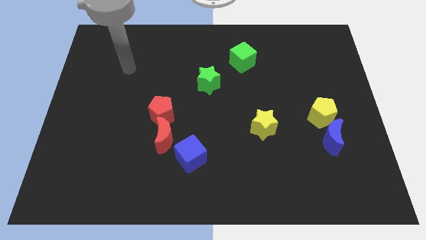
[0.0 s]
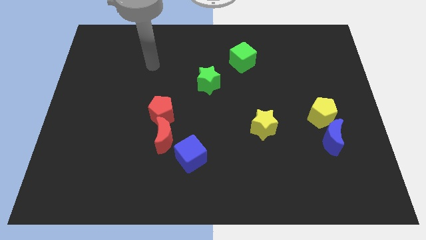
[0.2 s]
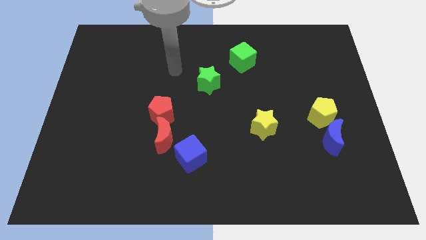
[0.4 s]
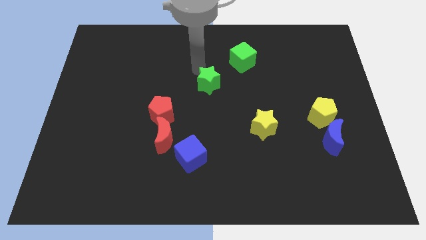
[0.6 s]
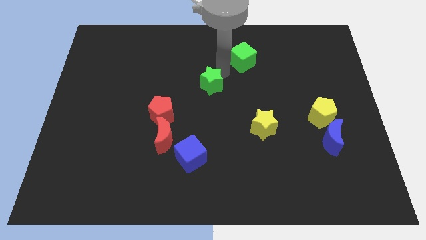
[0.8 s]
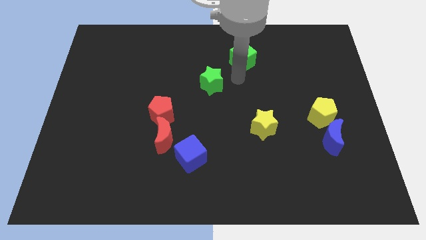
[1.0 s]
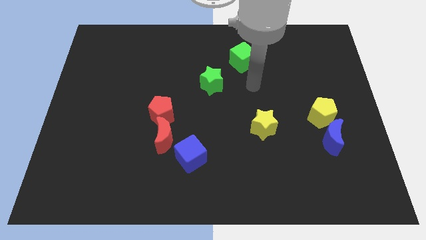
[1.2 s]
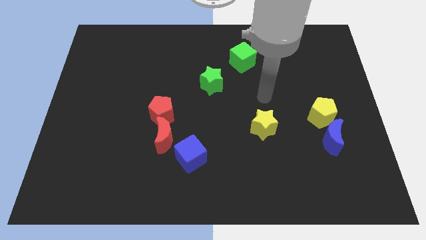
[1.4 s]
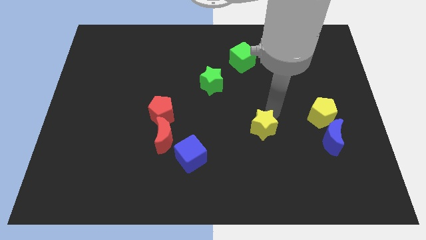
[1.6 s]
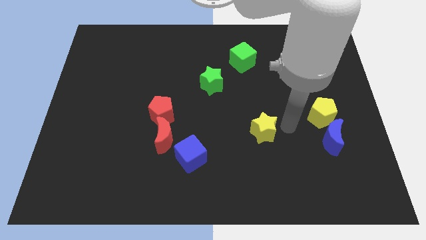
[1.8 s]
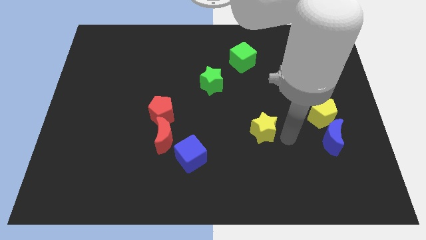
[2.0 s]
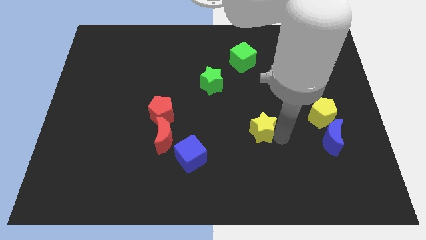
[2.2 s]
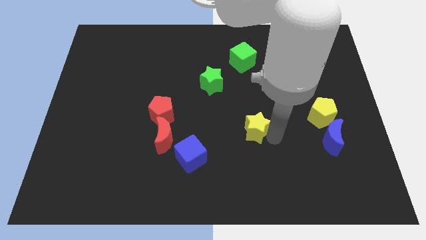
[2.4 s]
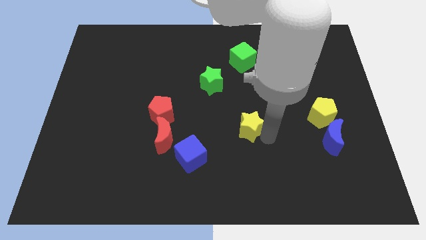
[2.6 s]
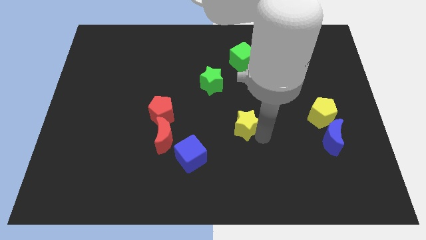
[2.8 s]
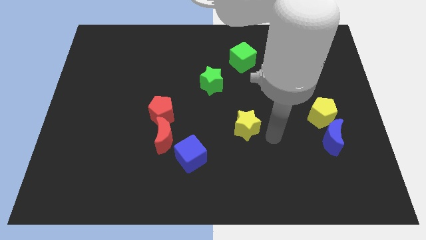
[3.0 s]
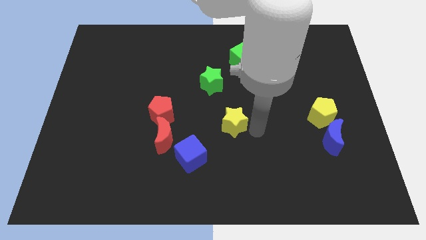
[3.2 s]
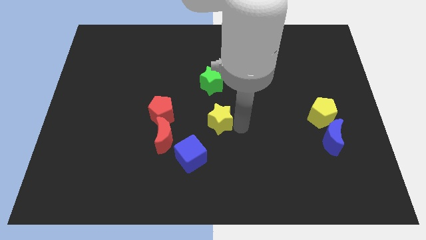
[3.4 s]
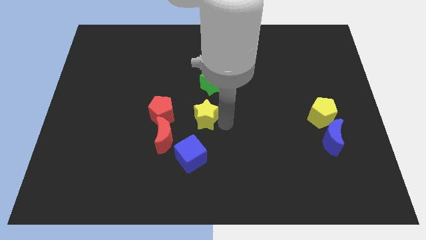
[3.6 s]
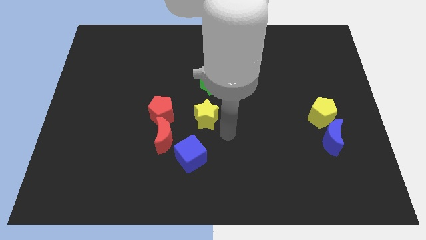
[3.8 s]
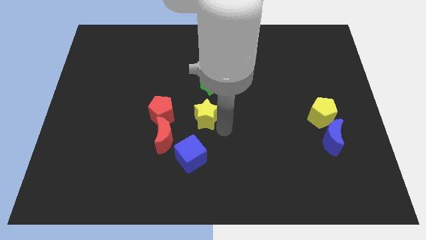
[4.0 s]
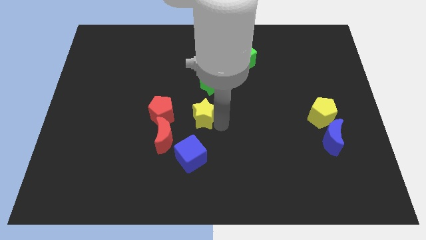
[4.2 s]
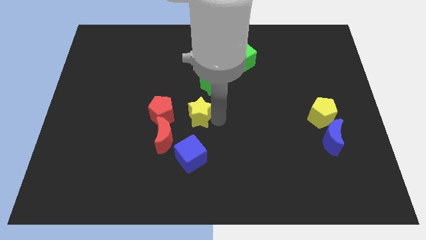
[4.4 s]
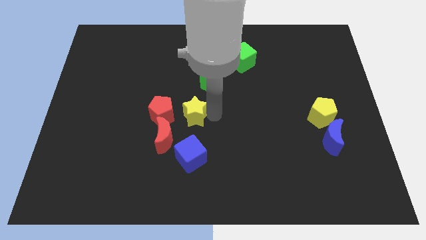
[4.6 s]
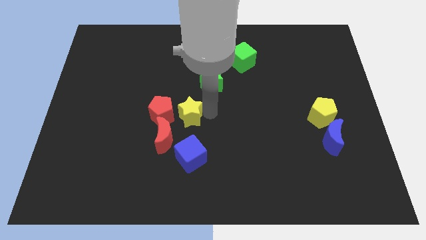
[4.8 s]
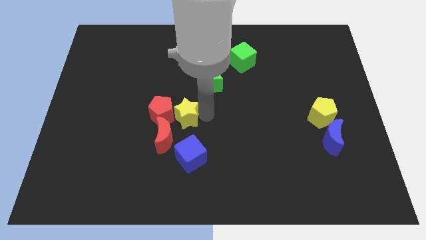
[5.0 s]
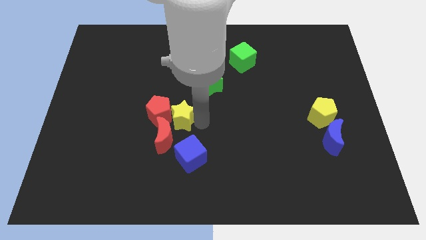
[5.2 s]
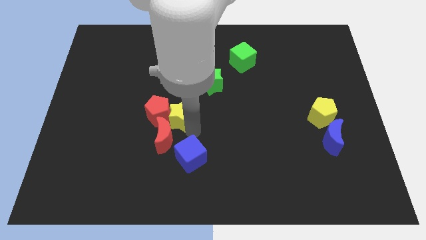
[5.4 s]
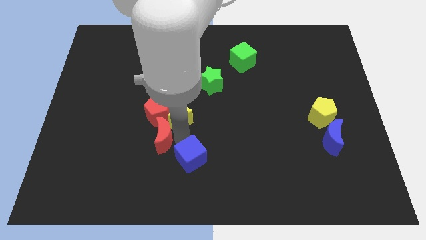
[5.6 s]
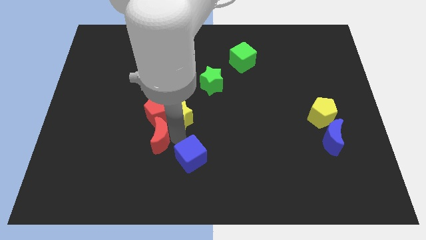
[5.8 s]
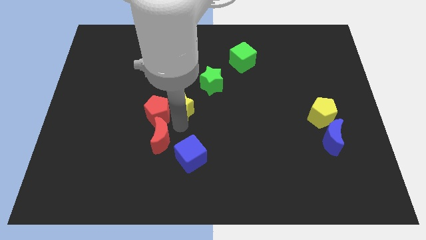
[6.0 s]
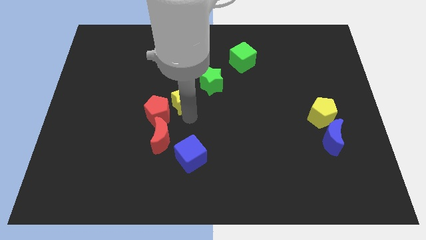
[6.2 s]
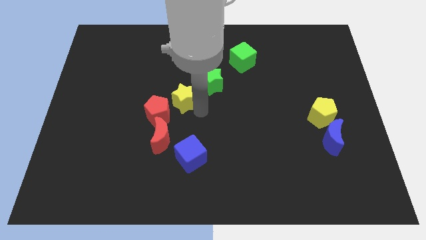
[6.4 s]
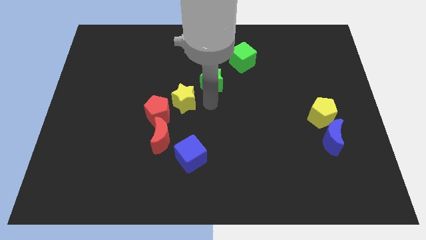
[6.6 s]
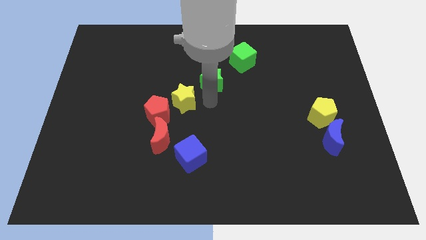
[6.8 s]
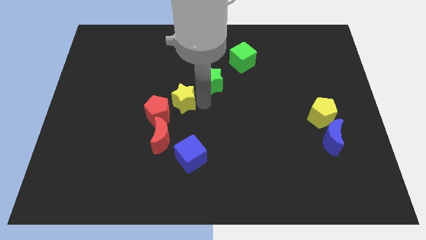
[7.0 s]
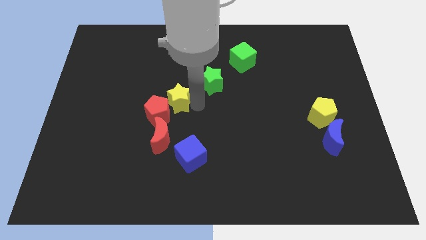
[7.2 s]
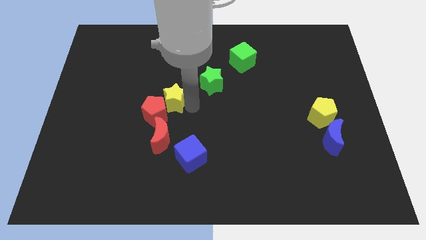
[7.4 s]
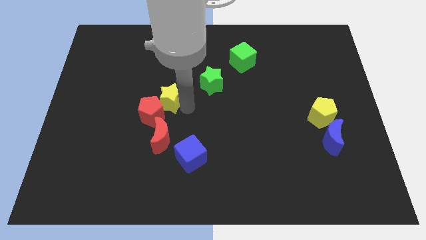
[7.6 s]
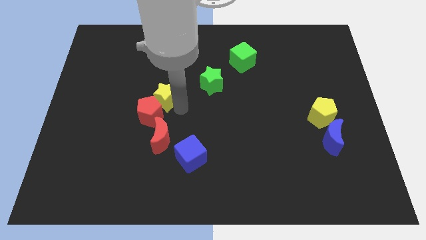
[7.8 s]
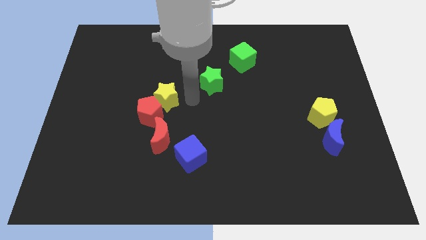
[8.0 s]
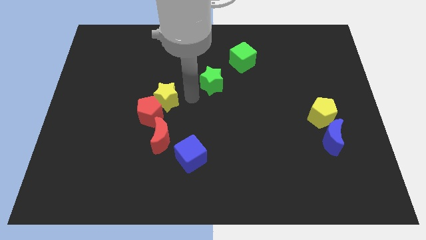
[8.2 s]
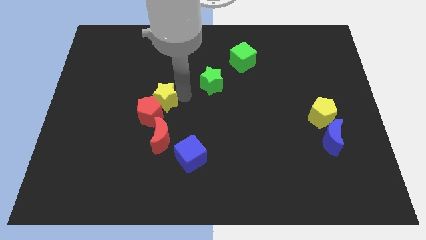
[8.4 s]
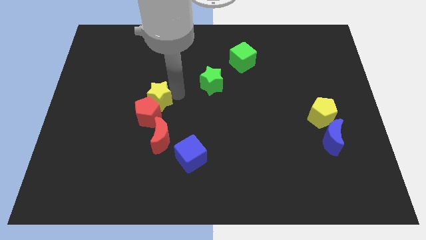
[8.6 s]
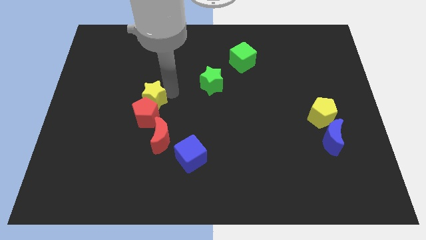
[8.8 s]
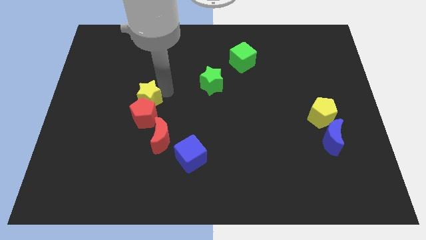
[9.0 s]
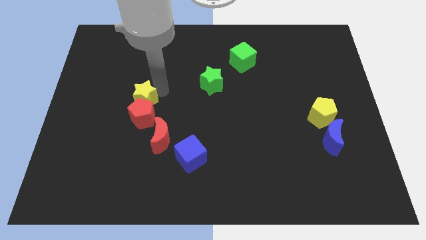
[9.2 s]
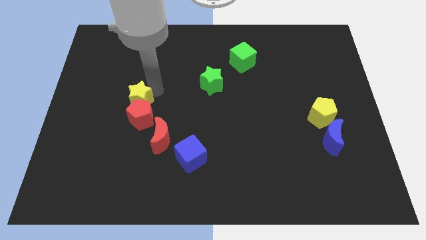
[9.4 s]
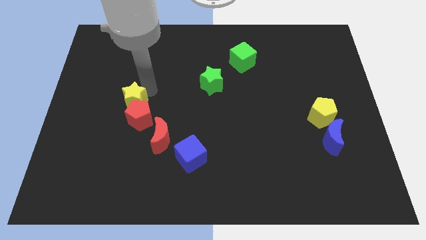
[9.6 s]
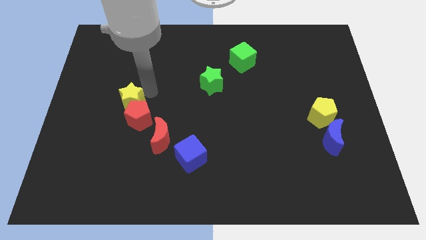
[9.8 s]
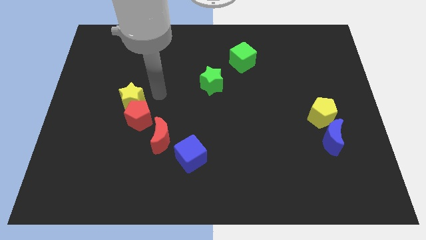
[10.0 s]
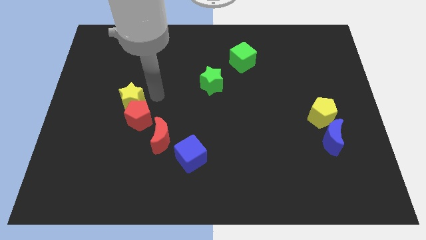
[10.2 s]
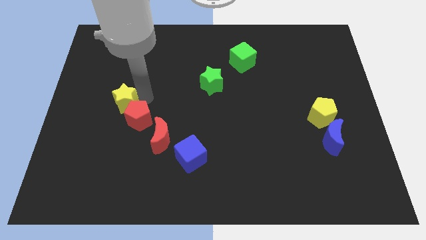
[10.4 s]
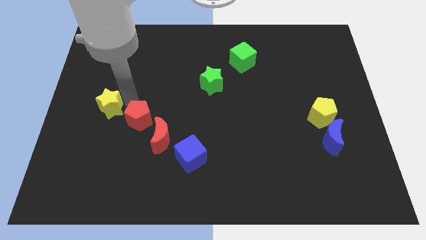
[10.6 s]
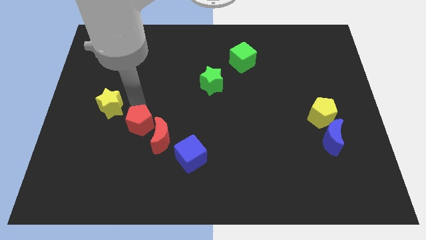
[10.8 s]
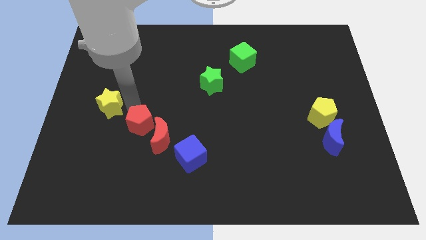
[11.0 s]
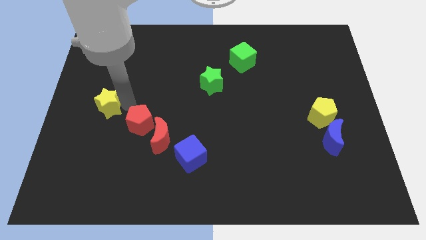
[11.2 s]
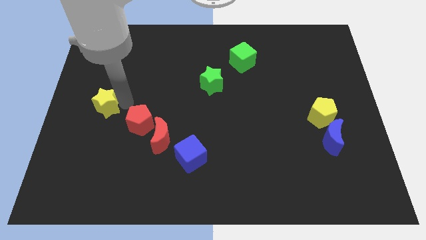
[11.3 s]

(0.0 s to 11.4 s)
push the yellow star to the left side

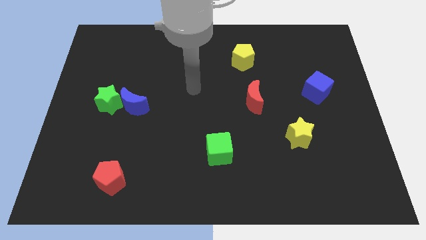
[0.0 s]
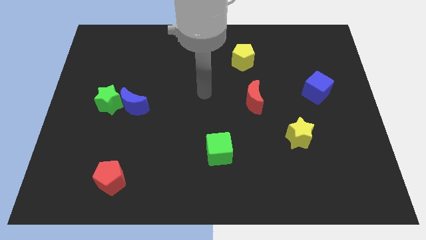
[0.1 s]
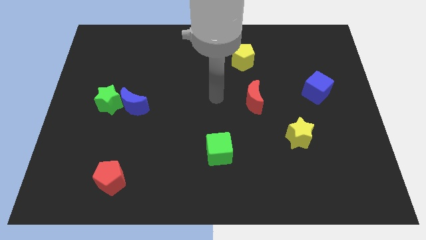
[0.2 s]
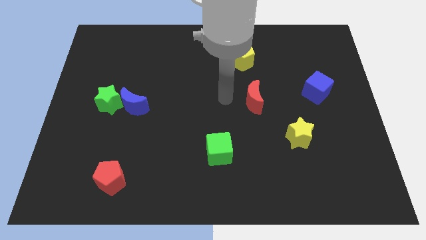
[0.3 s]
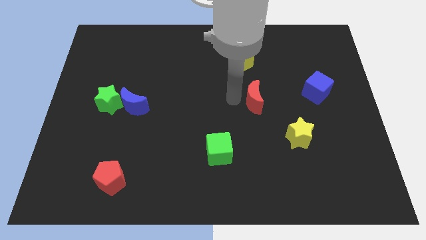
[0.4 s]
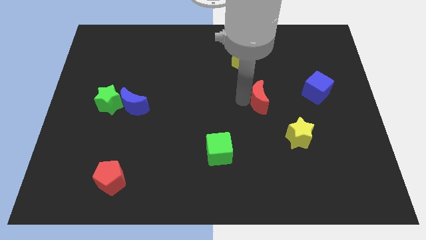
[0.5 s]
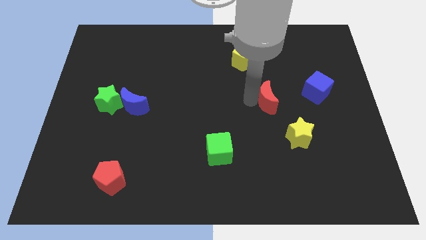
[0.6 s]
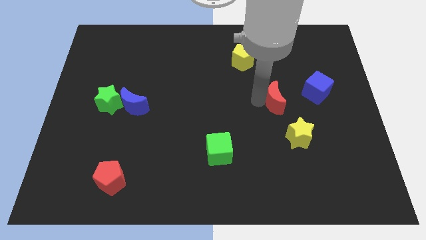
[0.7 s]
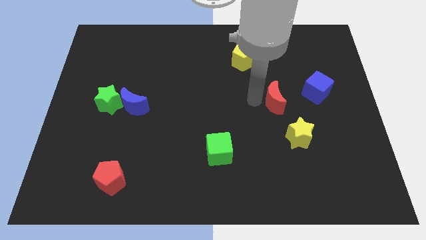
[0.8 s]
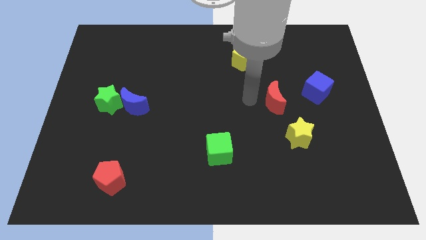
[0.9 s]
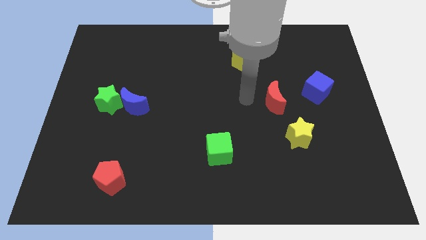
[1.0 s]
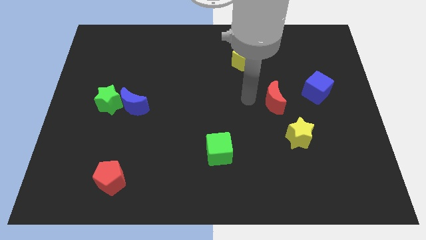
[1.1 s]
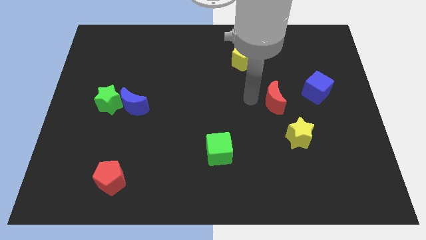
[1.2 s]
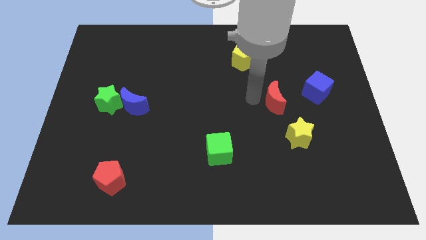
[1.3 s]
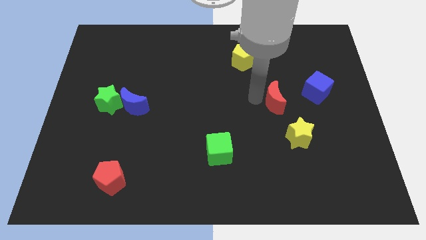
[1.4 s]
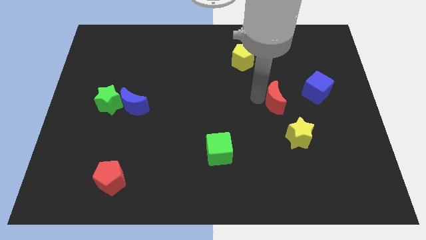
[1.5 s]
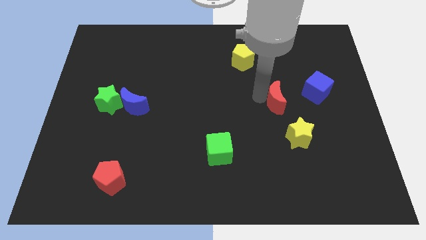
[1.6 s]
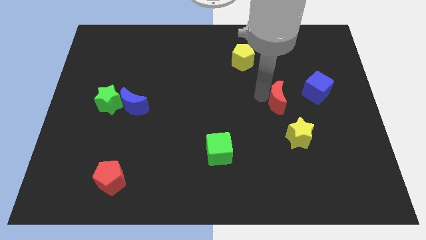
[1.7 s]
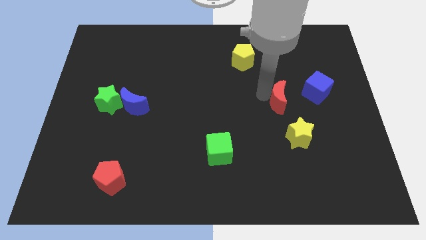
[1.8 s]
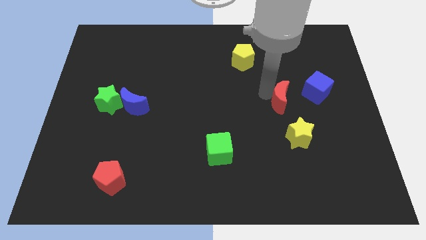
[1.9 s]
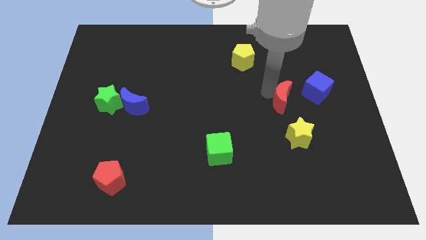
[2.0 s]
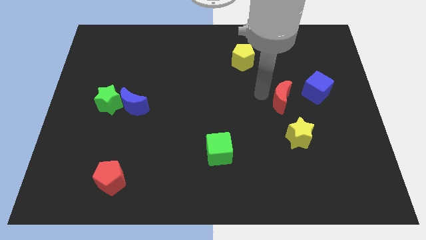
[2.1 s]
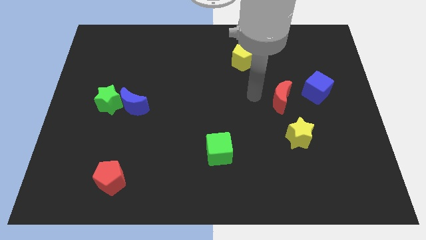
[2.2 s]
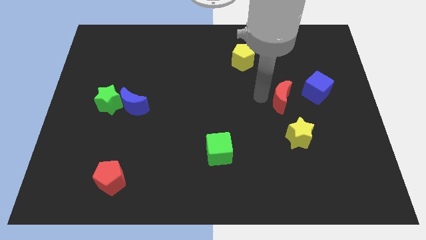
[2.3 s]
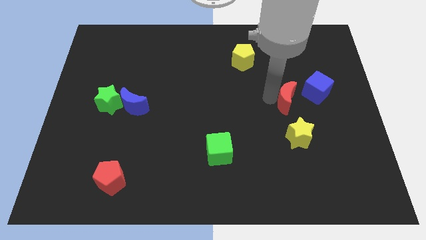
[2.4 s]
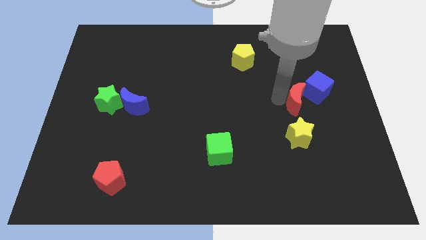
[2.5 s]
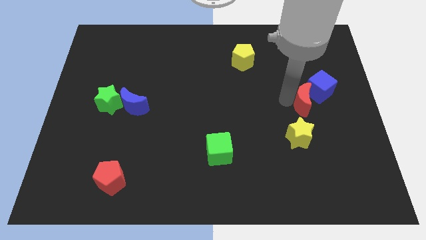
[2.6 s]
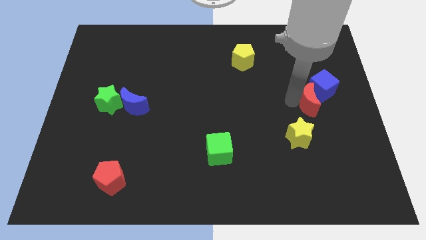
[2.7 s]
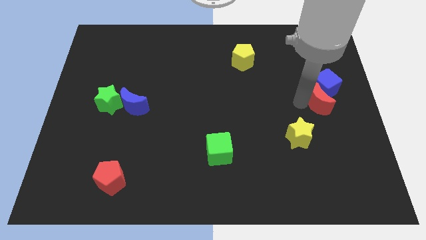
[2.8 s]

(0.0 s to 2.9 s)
push the red moon to the right side
